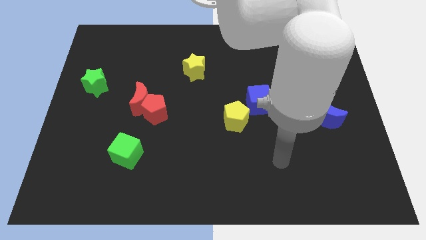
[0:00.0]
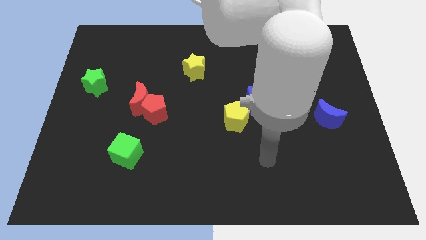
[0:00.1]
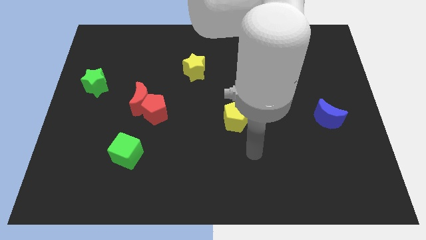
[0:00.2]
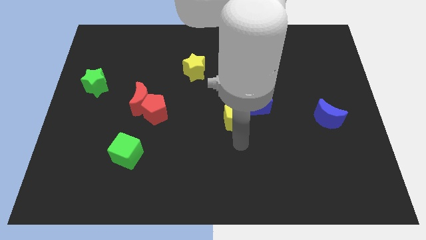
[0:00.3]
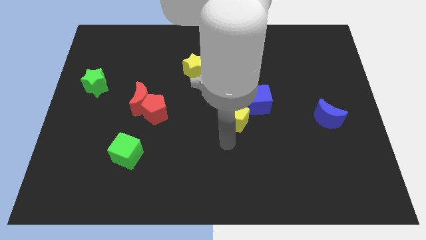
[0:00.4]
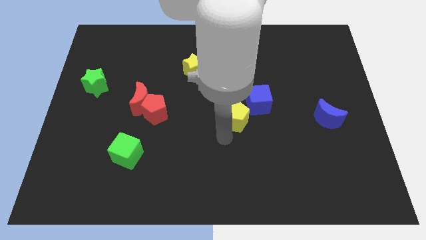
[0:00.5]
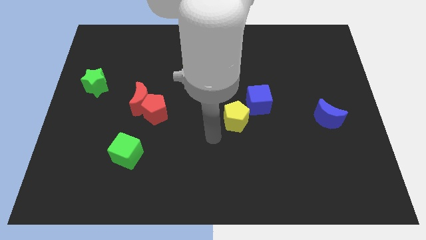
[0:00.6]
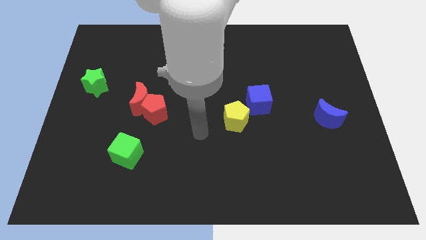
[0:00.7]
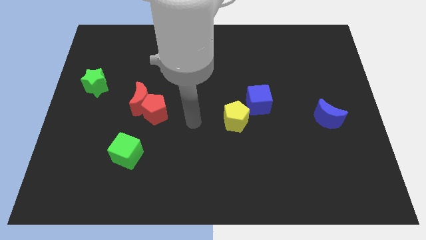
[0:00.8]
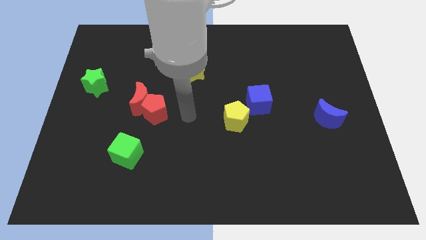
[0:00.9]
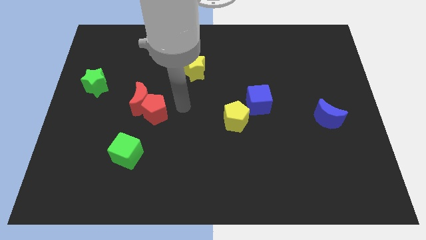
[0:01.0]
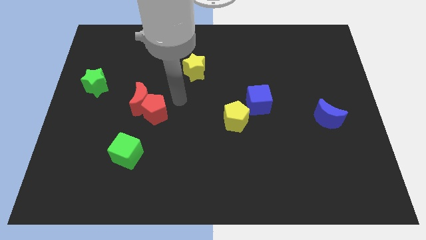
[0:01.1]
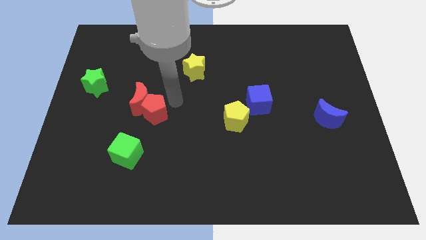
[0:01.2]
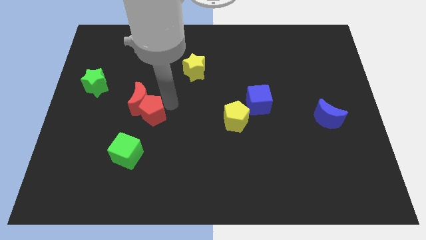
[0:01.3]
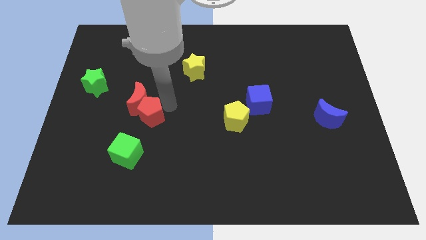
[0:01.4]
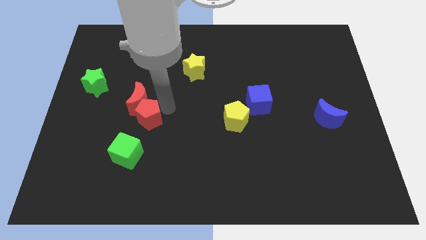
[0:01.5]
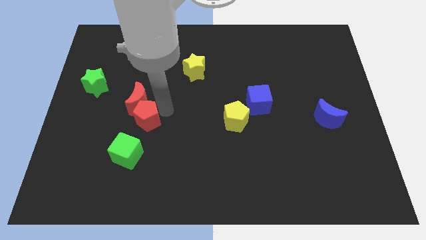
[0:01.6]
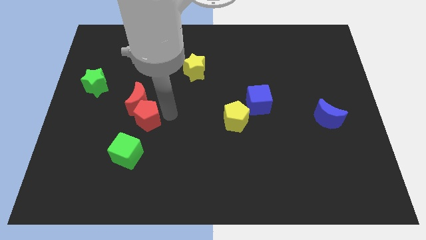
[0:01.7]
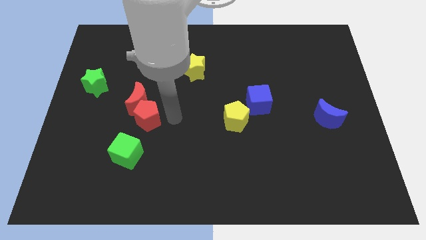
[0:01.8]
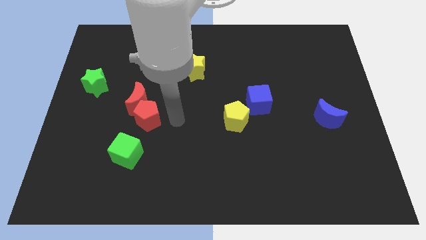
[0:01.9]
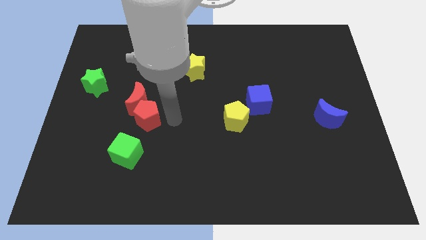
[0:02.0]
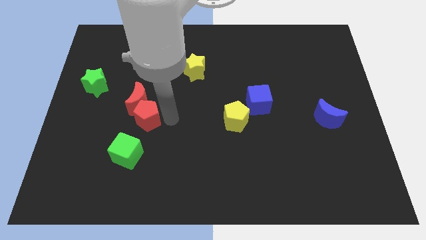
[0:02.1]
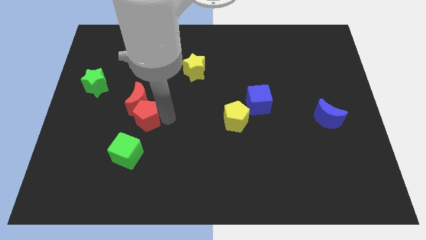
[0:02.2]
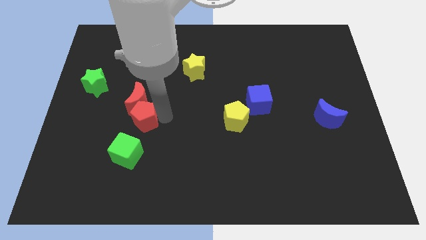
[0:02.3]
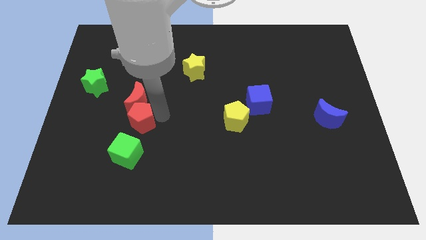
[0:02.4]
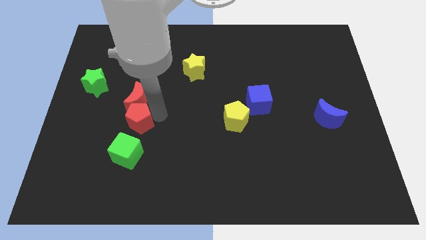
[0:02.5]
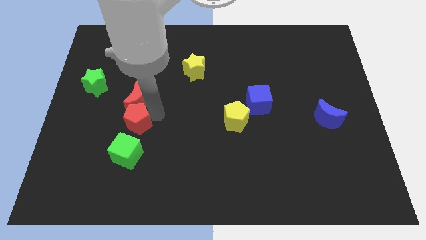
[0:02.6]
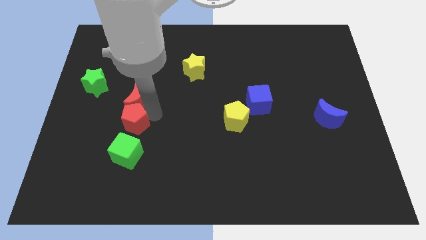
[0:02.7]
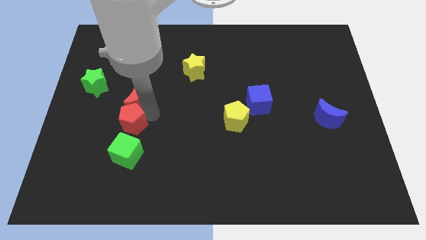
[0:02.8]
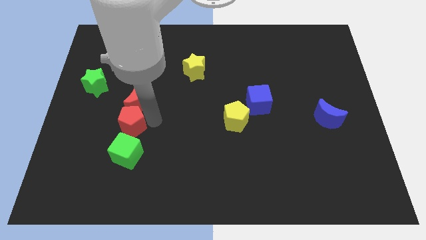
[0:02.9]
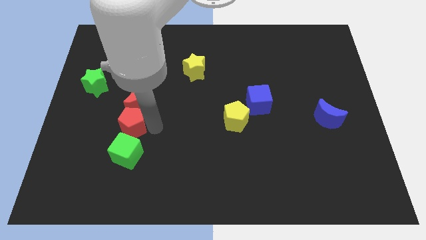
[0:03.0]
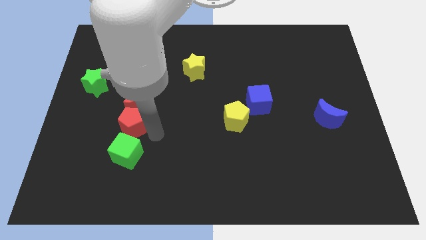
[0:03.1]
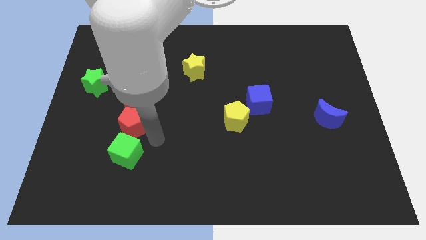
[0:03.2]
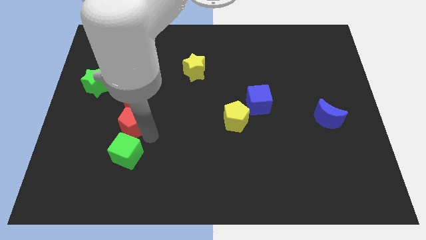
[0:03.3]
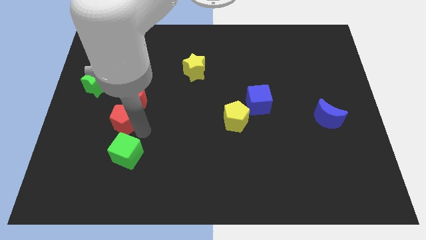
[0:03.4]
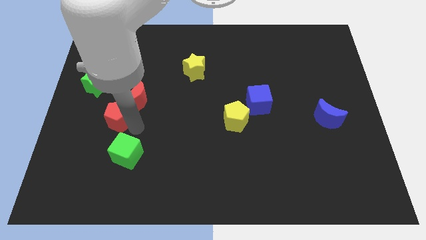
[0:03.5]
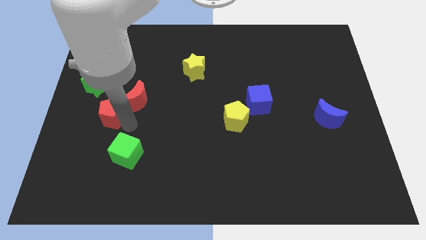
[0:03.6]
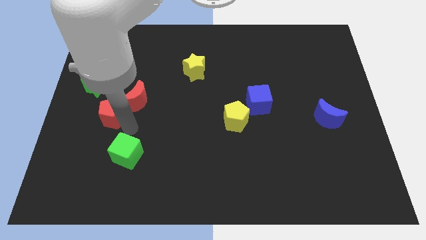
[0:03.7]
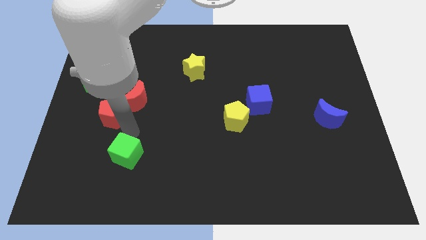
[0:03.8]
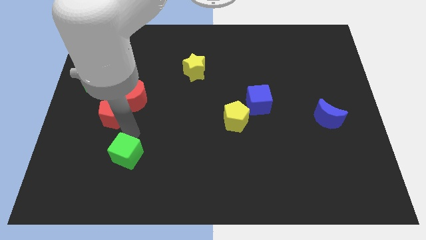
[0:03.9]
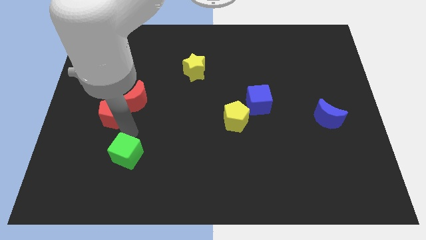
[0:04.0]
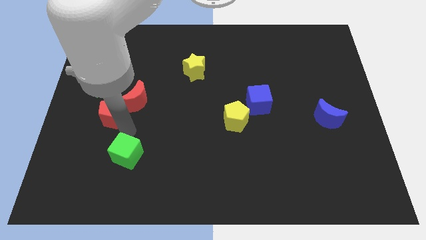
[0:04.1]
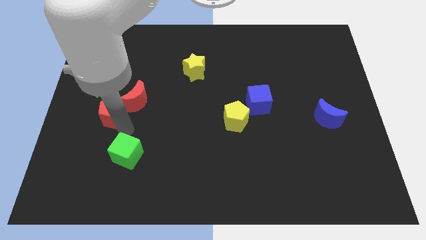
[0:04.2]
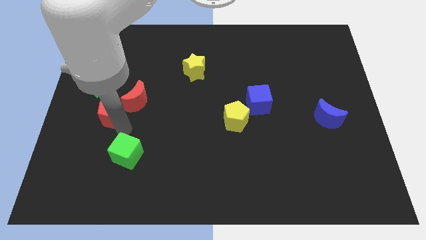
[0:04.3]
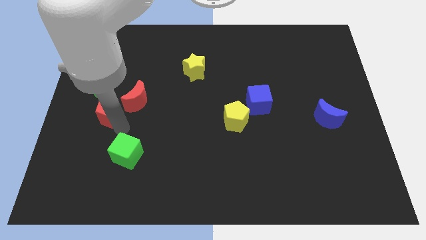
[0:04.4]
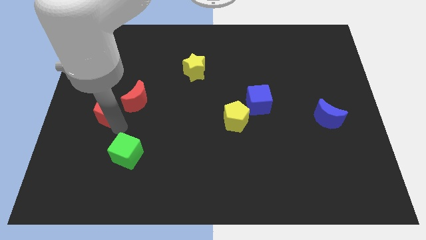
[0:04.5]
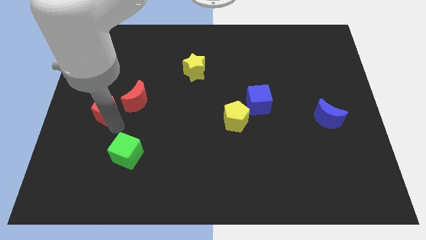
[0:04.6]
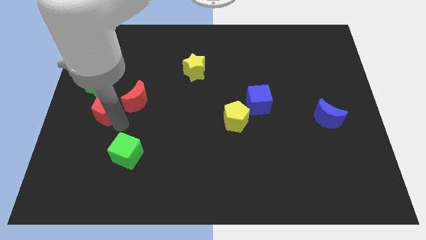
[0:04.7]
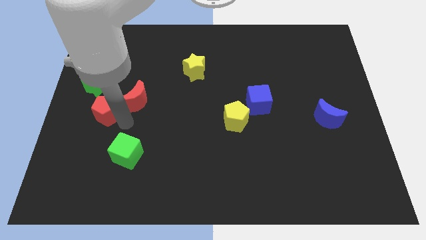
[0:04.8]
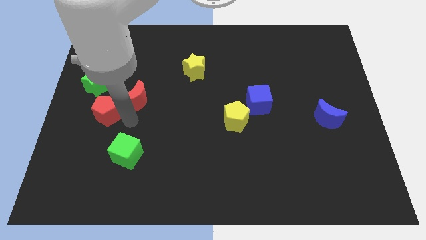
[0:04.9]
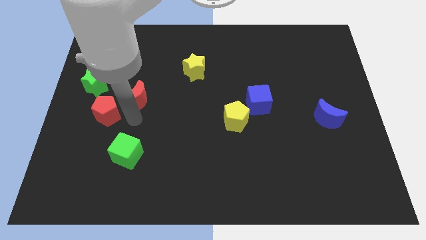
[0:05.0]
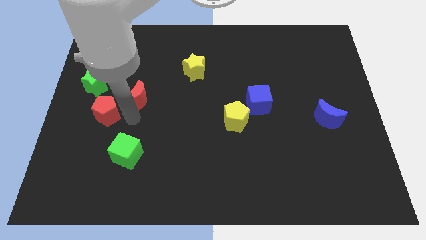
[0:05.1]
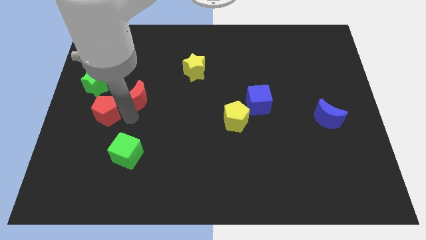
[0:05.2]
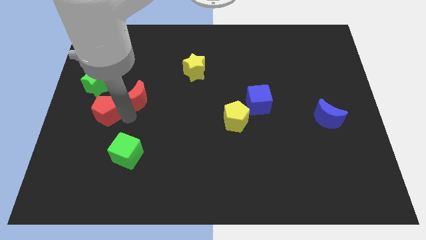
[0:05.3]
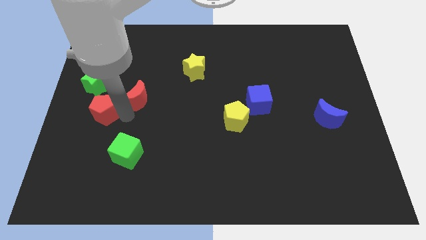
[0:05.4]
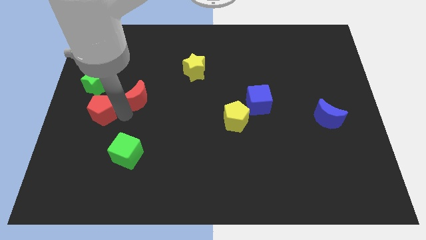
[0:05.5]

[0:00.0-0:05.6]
move the red pentagon to the left side of the board
